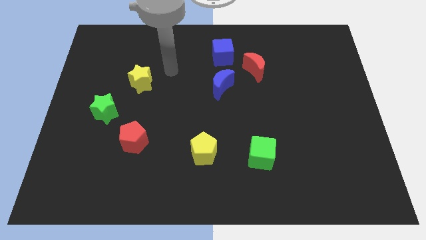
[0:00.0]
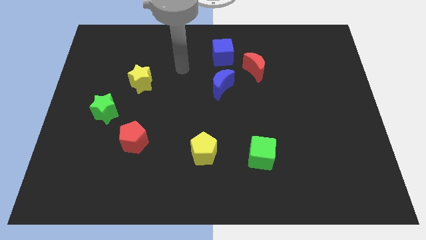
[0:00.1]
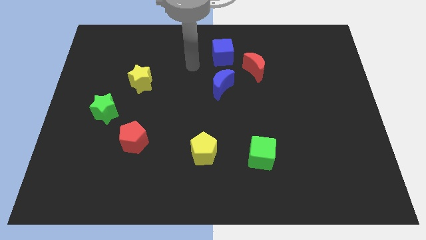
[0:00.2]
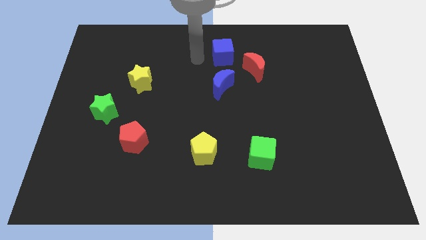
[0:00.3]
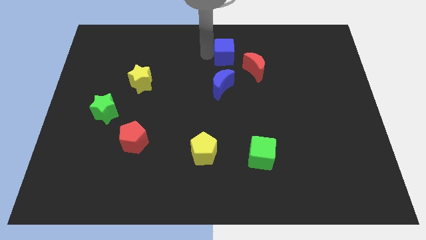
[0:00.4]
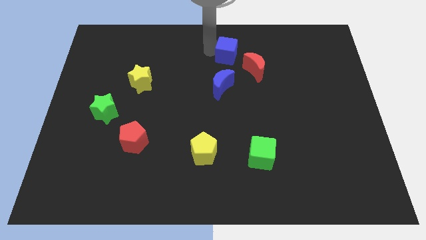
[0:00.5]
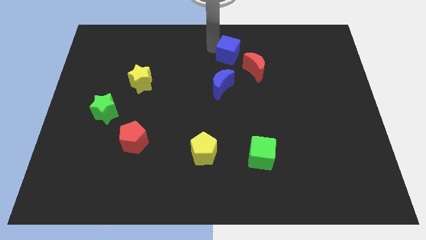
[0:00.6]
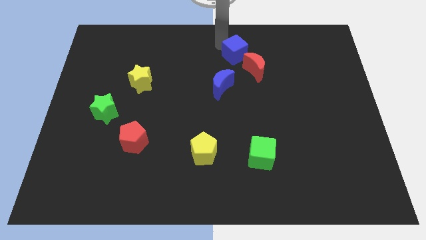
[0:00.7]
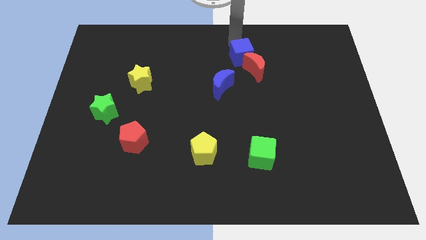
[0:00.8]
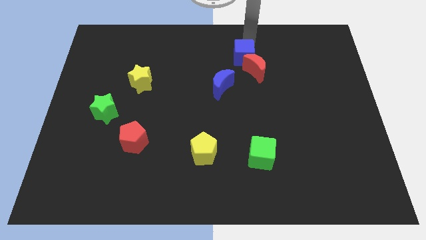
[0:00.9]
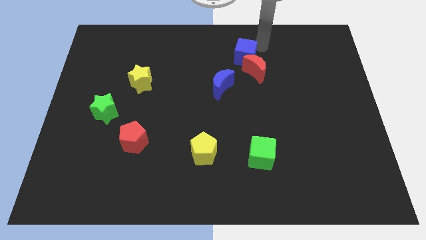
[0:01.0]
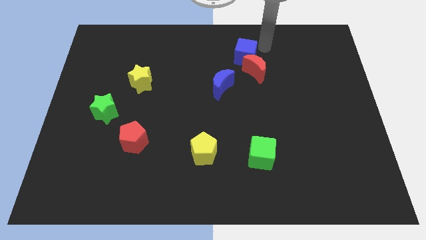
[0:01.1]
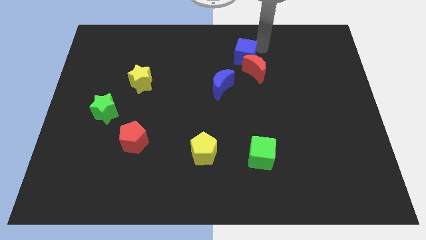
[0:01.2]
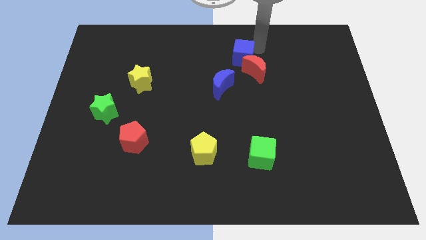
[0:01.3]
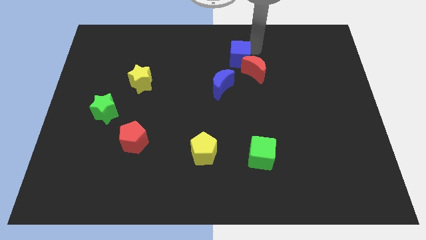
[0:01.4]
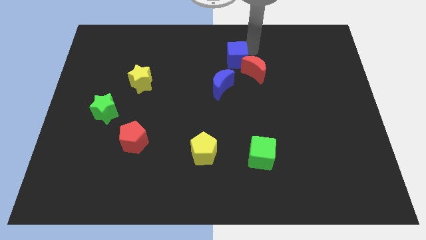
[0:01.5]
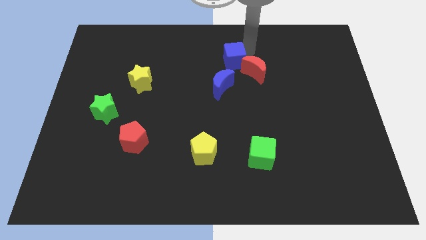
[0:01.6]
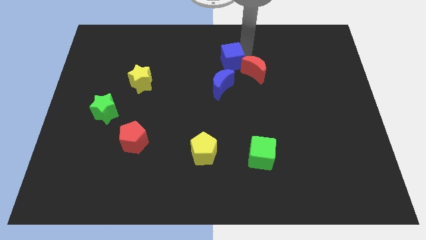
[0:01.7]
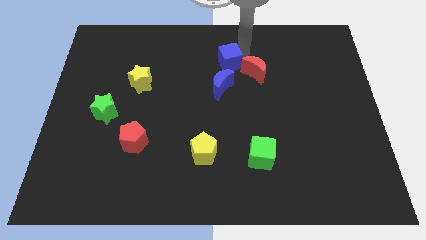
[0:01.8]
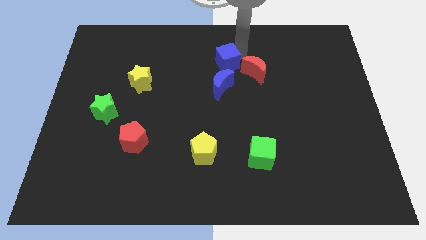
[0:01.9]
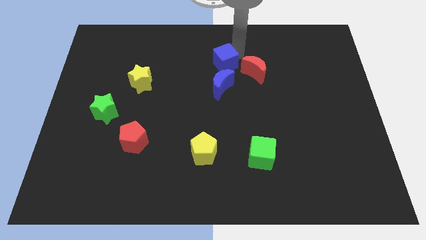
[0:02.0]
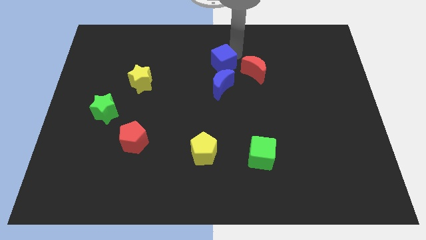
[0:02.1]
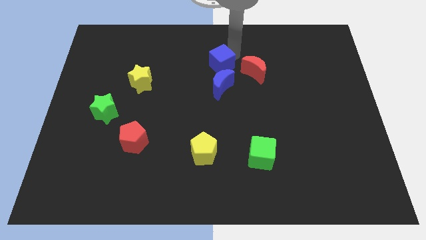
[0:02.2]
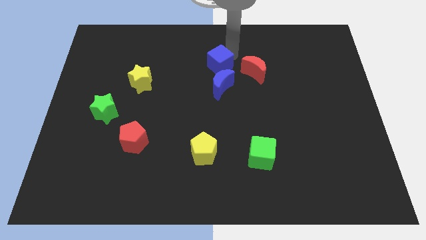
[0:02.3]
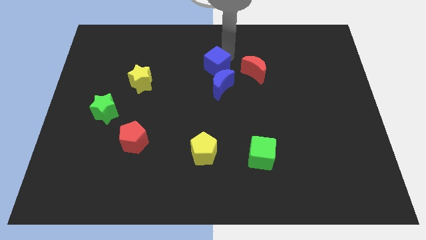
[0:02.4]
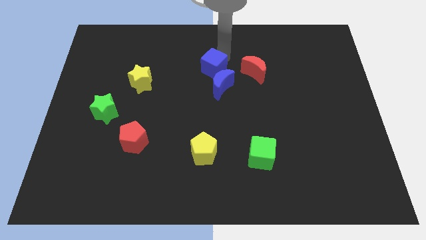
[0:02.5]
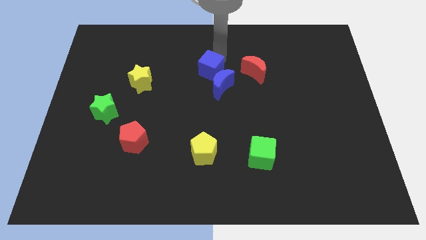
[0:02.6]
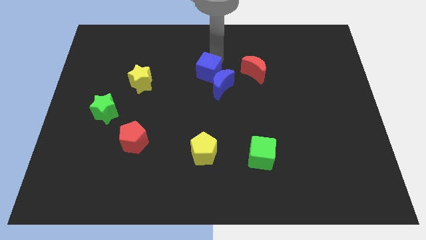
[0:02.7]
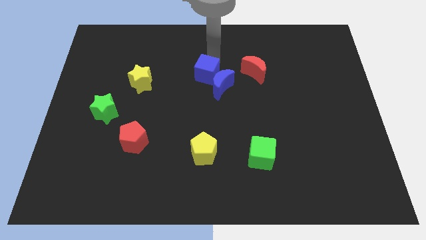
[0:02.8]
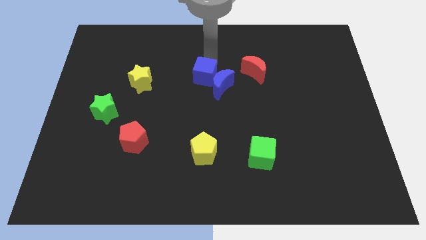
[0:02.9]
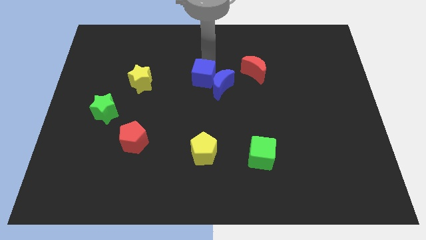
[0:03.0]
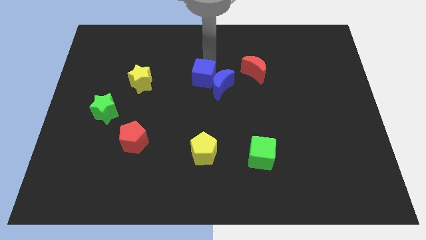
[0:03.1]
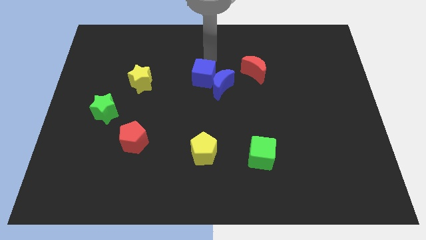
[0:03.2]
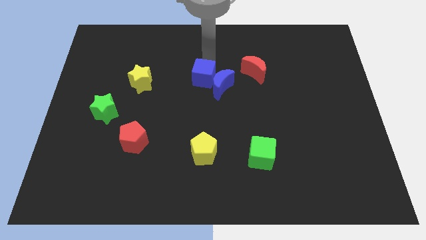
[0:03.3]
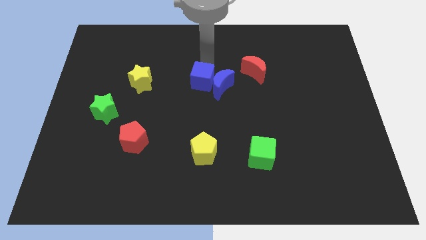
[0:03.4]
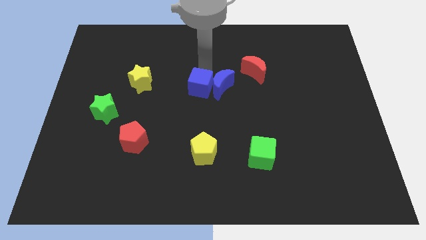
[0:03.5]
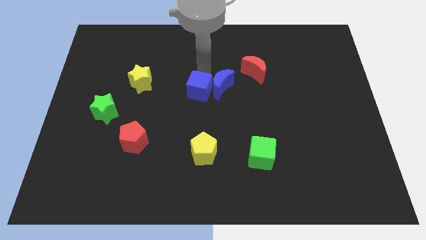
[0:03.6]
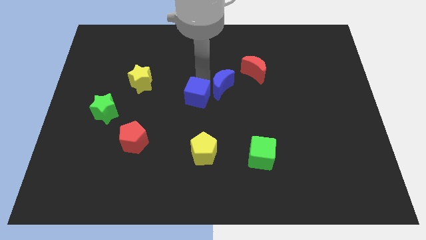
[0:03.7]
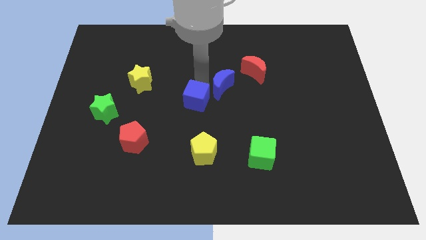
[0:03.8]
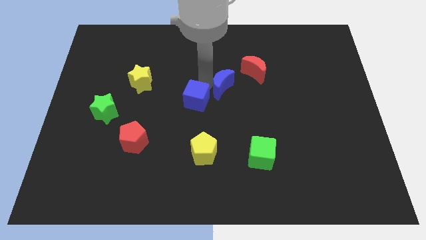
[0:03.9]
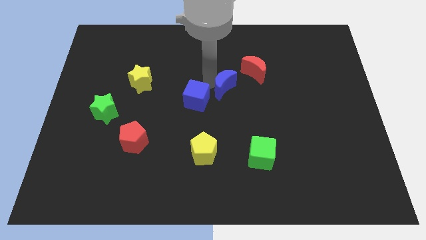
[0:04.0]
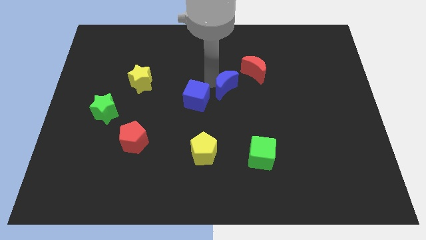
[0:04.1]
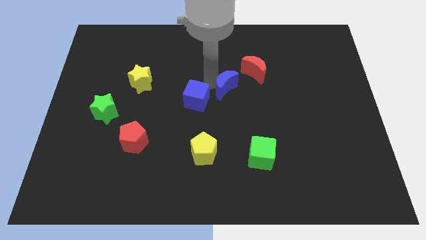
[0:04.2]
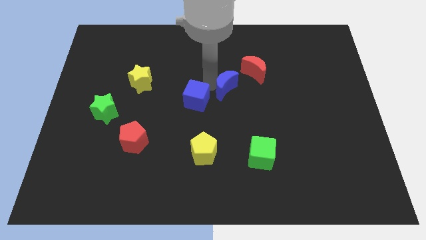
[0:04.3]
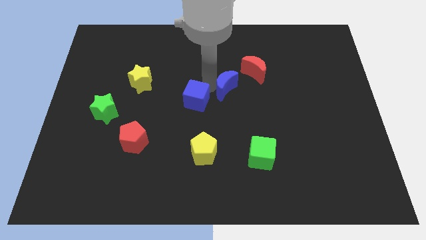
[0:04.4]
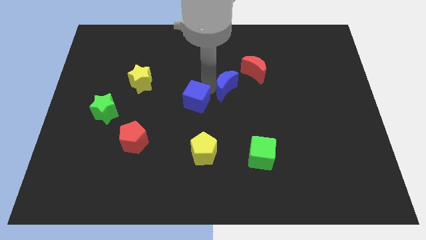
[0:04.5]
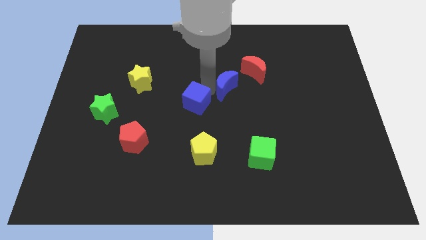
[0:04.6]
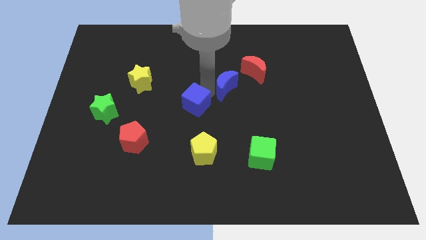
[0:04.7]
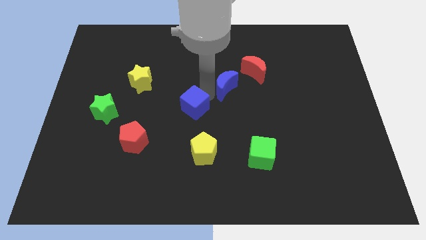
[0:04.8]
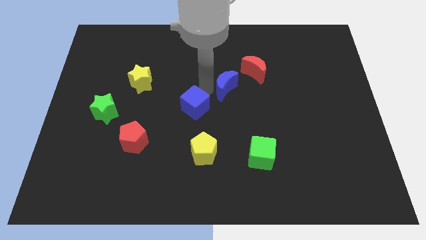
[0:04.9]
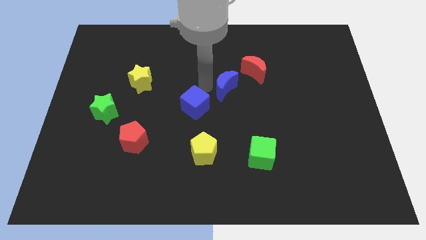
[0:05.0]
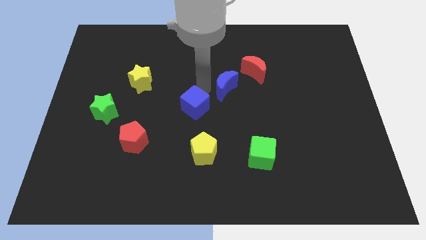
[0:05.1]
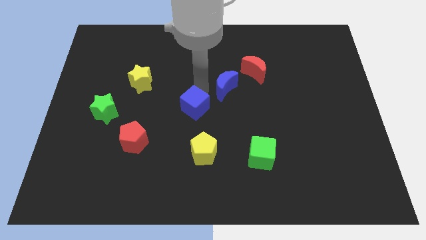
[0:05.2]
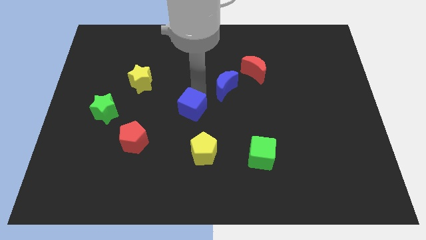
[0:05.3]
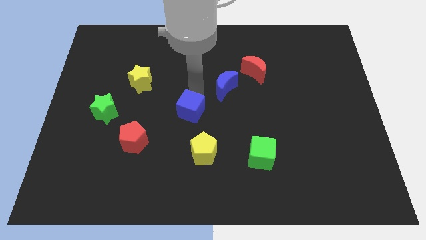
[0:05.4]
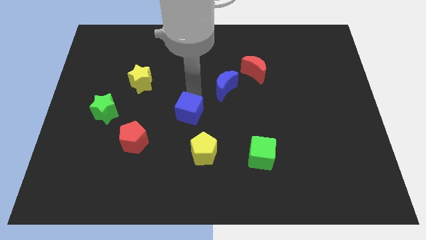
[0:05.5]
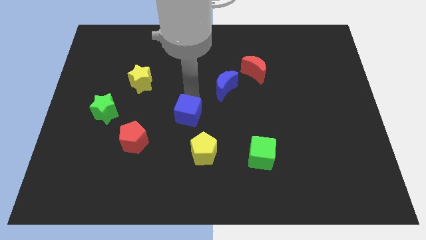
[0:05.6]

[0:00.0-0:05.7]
put the blue cube diagonally up and to the left of the yellow pentagon

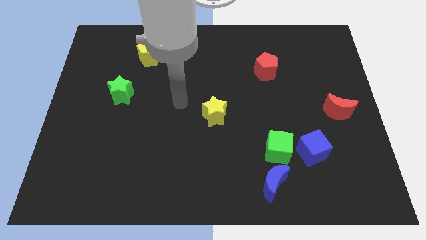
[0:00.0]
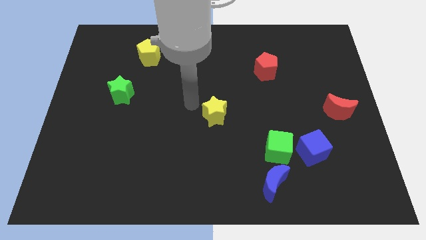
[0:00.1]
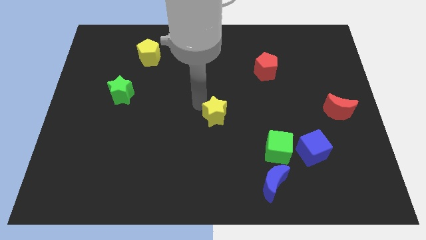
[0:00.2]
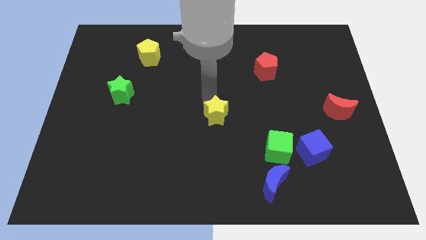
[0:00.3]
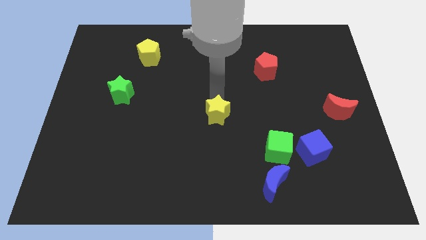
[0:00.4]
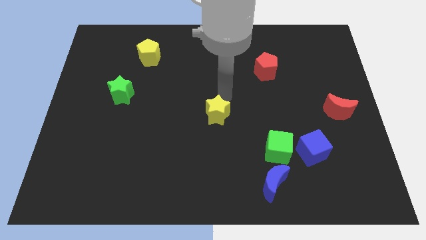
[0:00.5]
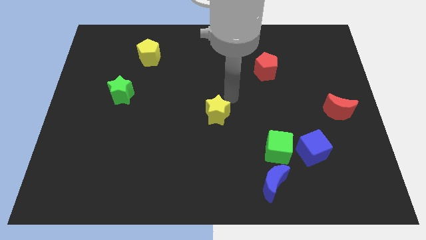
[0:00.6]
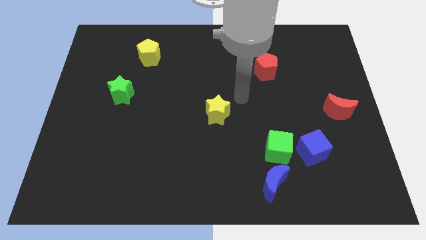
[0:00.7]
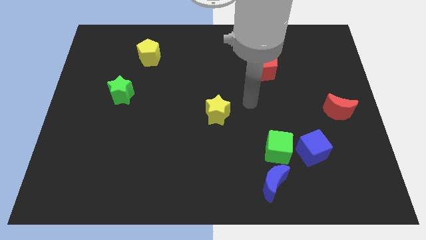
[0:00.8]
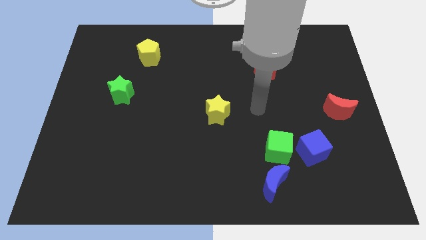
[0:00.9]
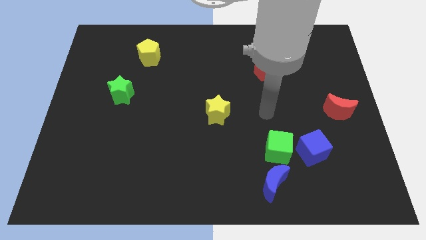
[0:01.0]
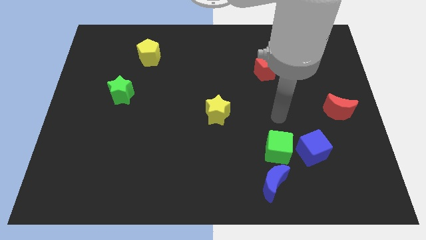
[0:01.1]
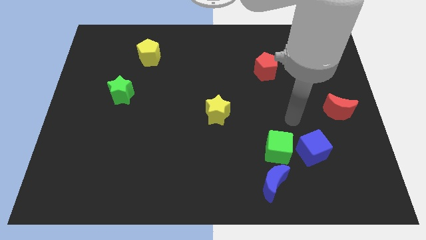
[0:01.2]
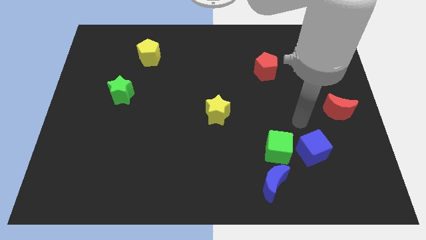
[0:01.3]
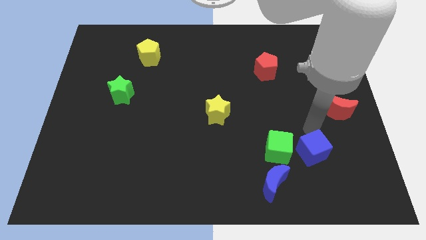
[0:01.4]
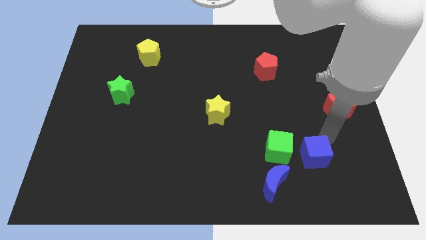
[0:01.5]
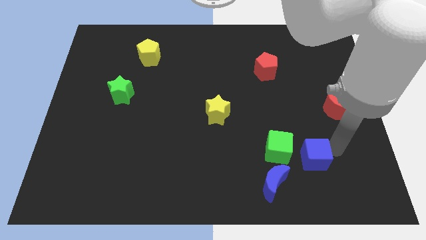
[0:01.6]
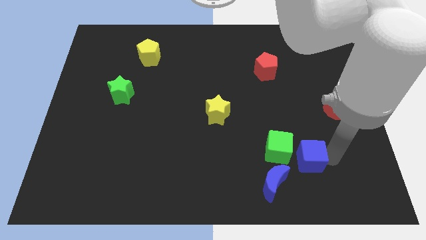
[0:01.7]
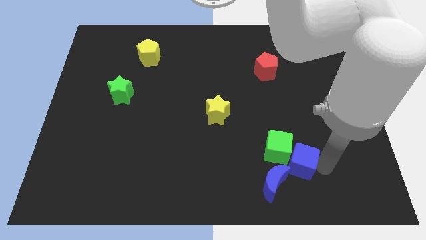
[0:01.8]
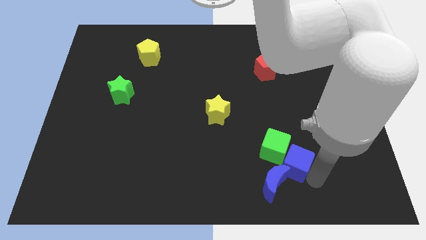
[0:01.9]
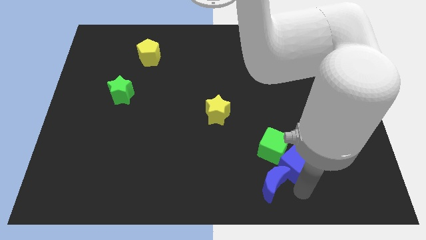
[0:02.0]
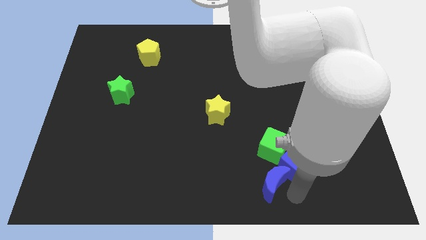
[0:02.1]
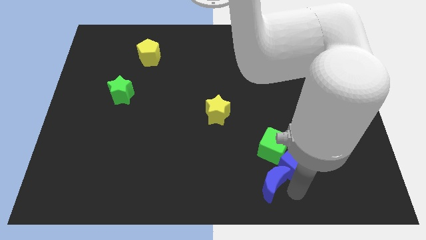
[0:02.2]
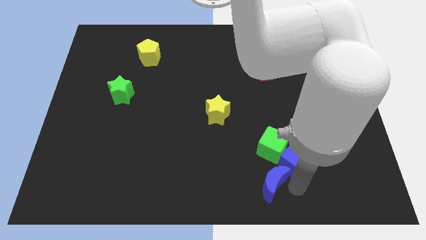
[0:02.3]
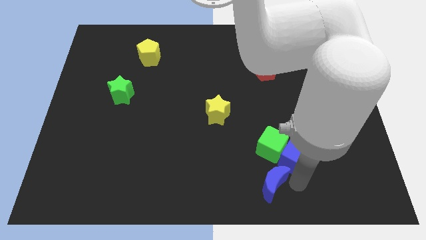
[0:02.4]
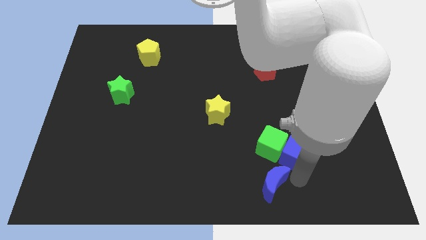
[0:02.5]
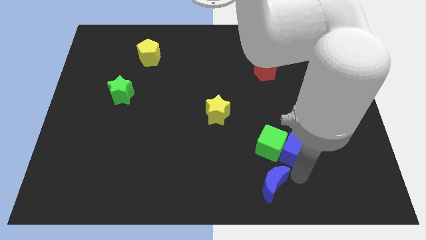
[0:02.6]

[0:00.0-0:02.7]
move the blue cube diagonally up and to the right of the green cube

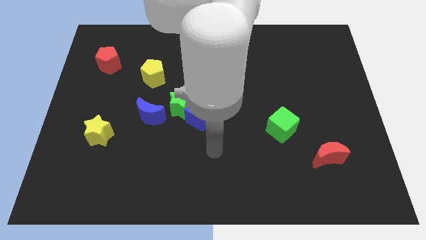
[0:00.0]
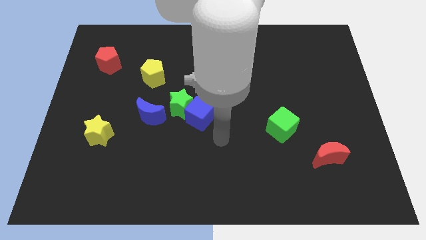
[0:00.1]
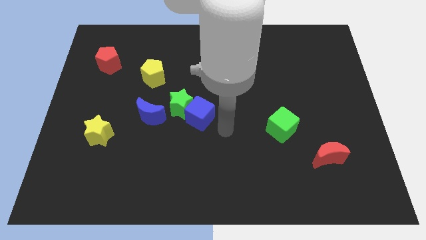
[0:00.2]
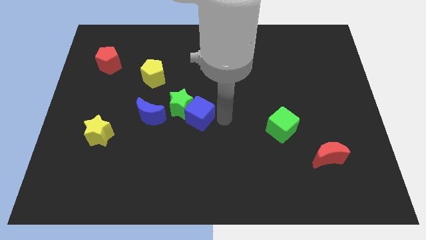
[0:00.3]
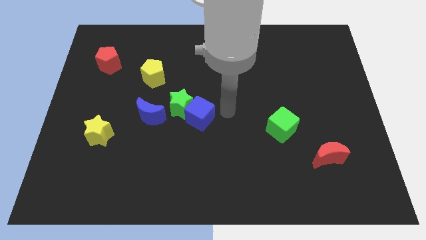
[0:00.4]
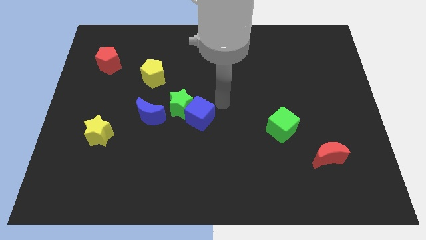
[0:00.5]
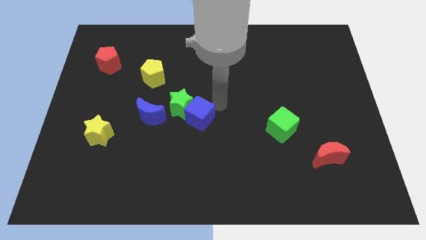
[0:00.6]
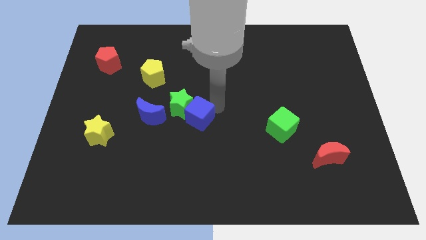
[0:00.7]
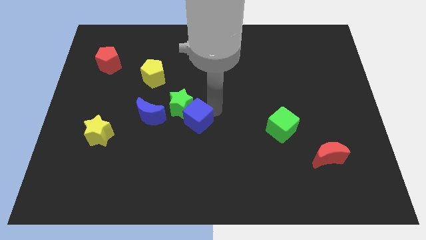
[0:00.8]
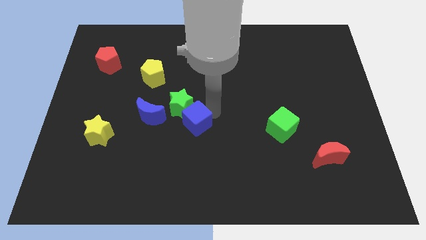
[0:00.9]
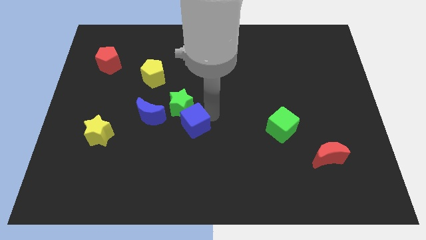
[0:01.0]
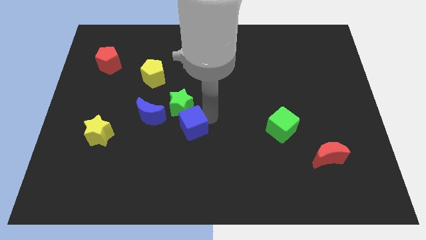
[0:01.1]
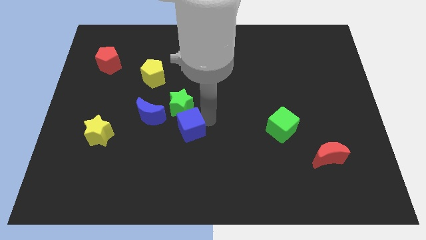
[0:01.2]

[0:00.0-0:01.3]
slide the blue cube to the bottom right of the blue moon
